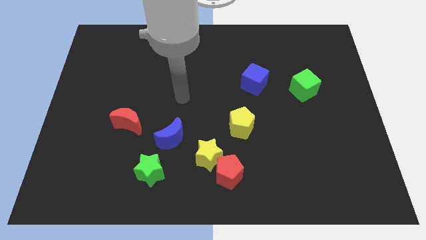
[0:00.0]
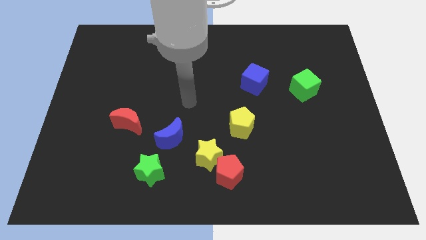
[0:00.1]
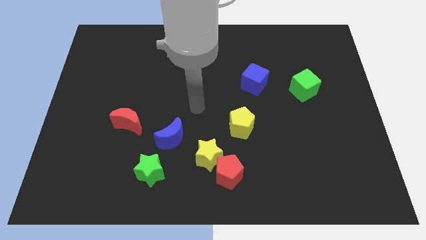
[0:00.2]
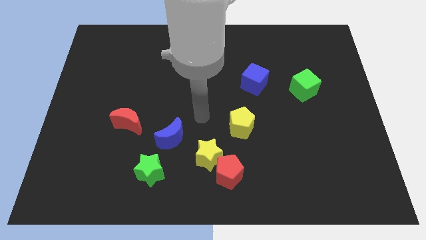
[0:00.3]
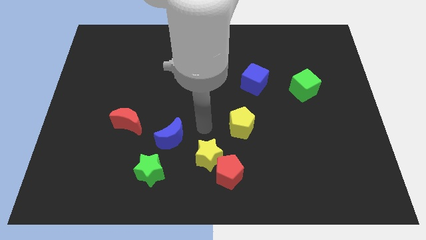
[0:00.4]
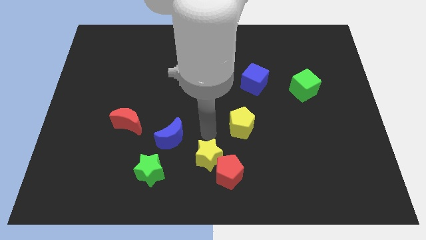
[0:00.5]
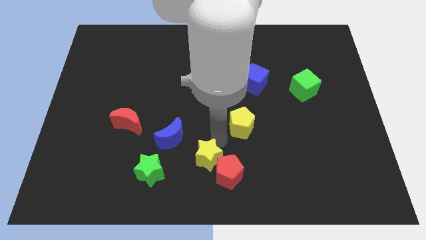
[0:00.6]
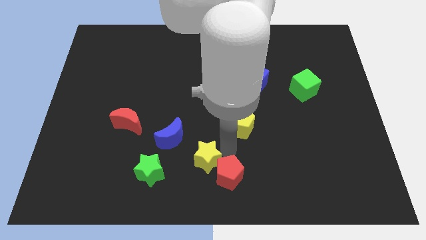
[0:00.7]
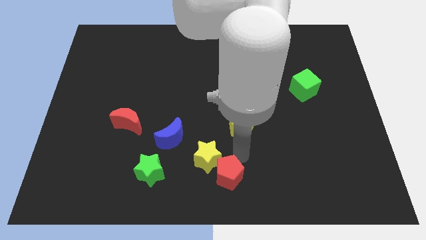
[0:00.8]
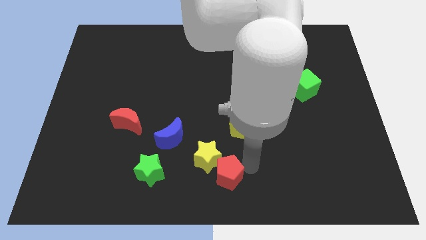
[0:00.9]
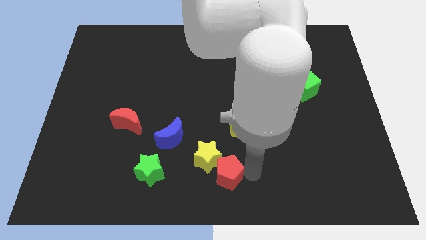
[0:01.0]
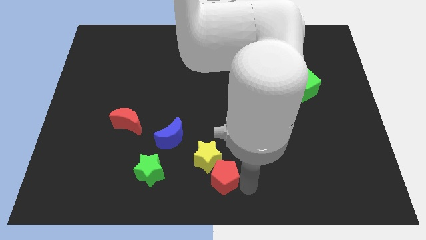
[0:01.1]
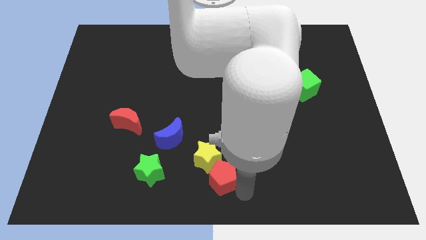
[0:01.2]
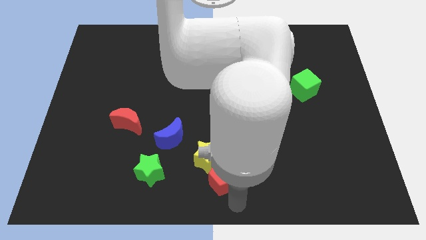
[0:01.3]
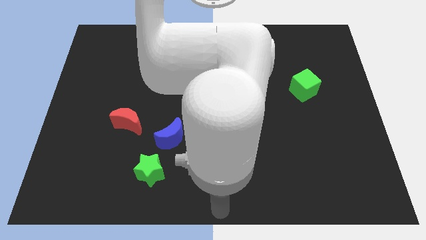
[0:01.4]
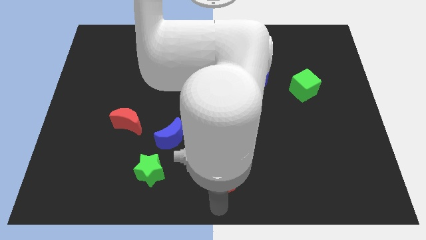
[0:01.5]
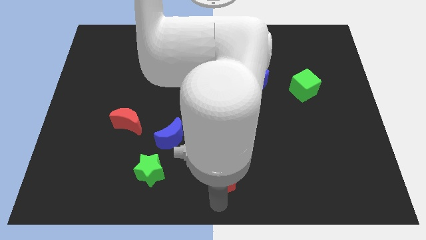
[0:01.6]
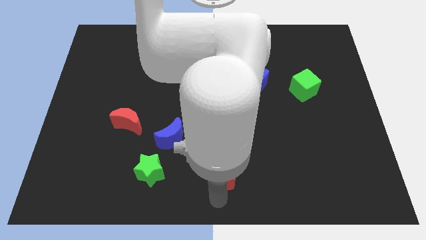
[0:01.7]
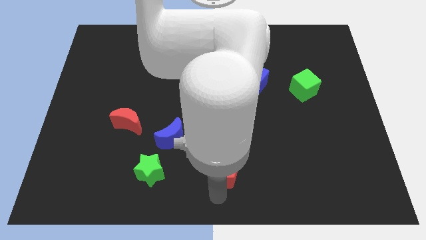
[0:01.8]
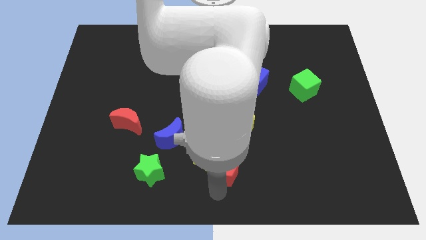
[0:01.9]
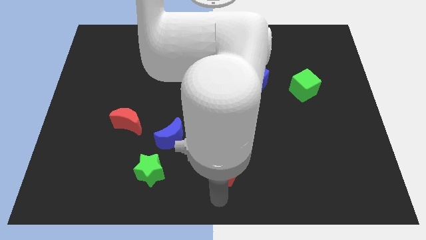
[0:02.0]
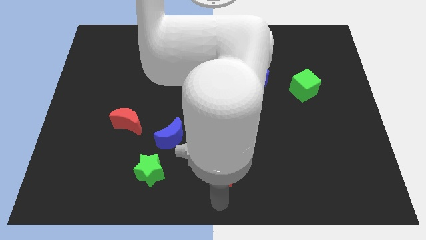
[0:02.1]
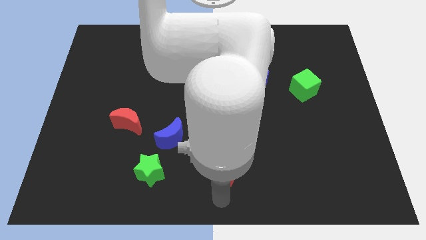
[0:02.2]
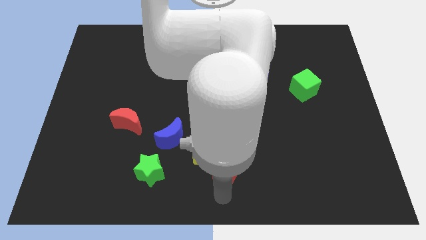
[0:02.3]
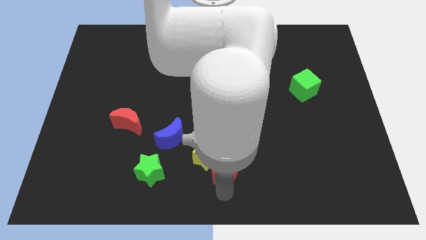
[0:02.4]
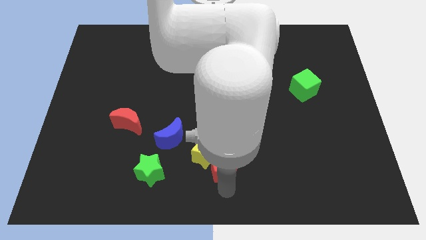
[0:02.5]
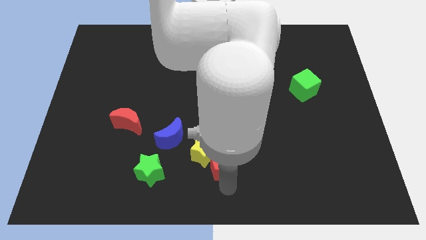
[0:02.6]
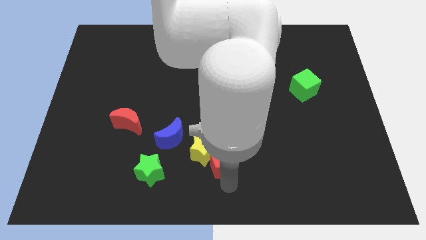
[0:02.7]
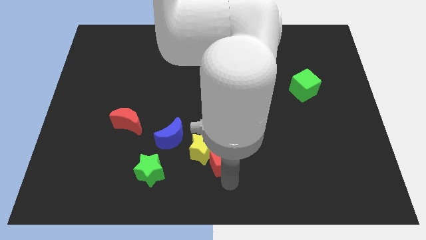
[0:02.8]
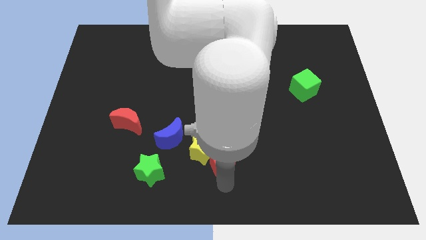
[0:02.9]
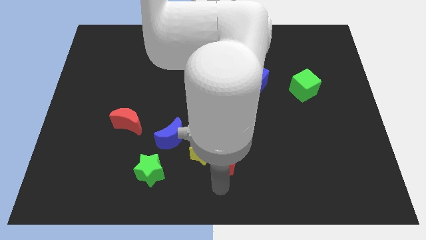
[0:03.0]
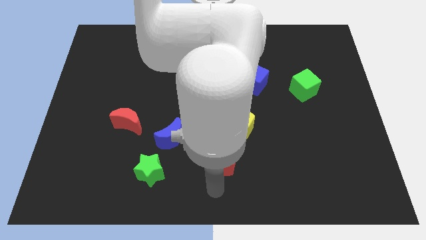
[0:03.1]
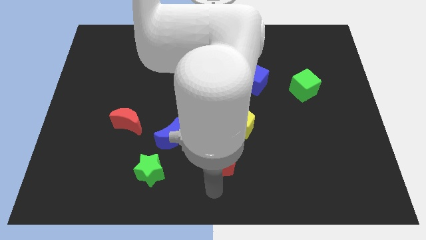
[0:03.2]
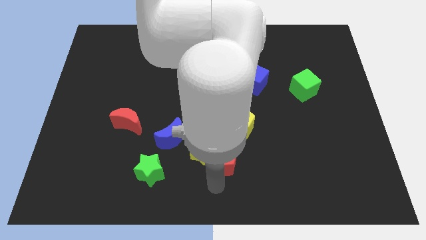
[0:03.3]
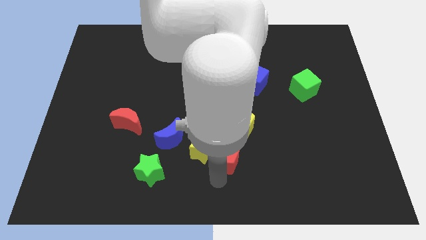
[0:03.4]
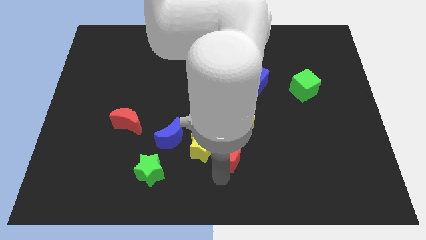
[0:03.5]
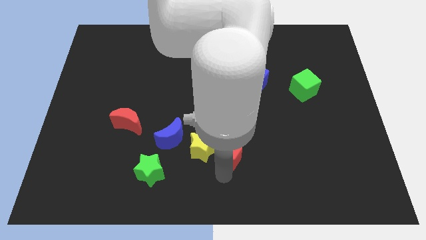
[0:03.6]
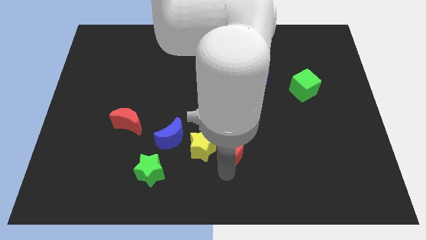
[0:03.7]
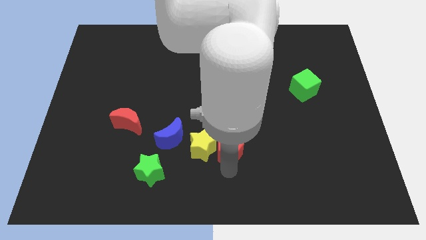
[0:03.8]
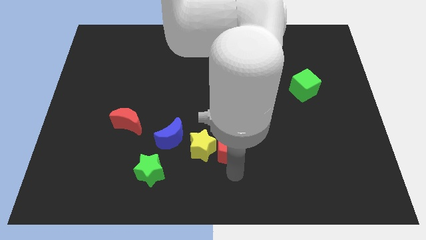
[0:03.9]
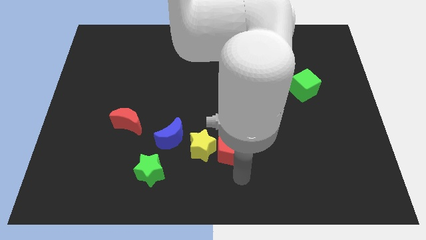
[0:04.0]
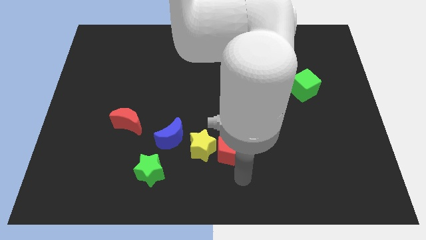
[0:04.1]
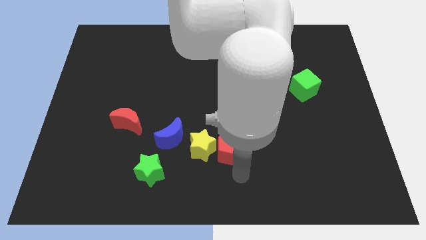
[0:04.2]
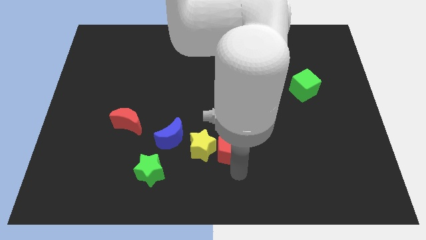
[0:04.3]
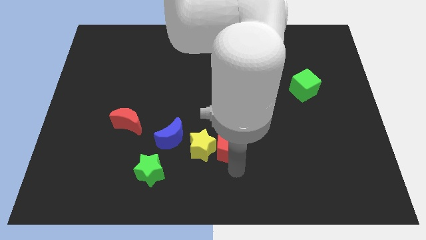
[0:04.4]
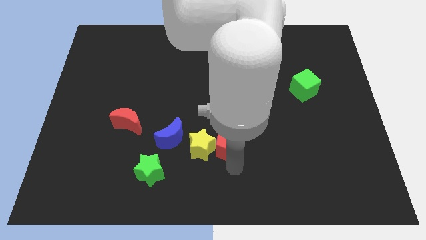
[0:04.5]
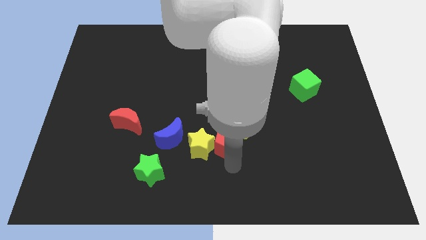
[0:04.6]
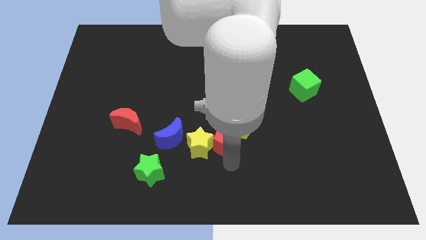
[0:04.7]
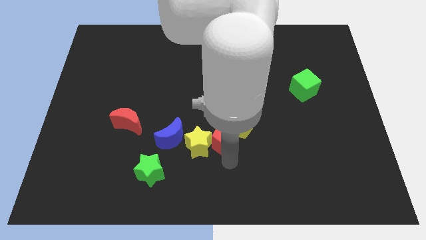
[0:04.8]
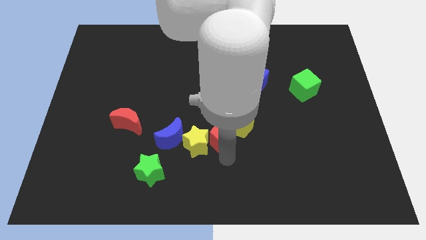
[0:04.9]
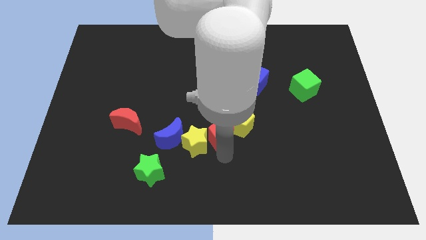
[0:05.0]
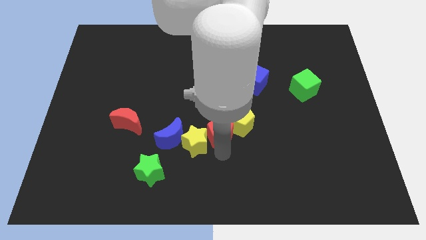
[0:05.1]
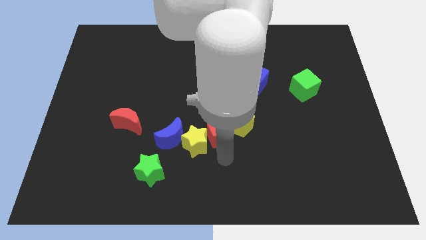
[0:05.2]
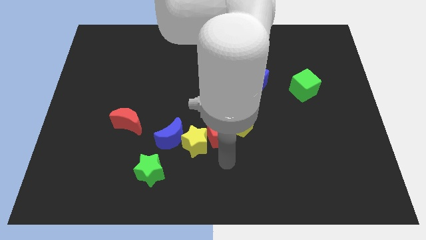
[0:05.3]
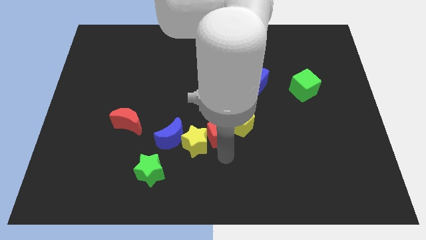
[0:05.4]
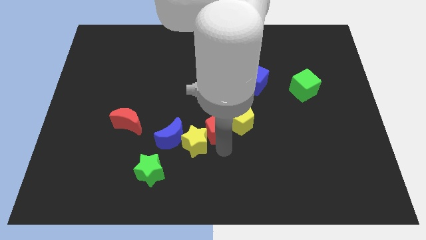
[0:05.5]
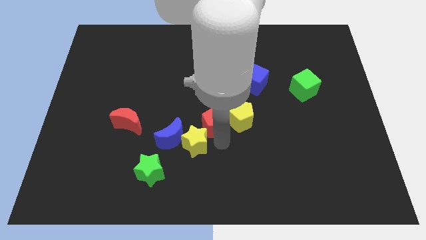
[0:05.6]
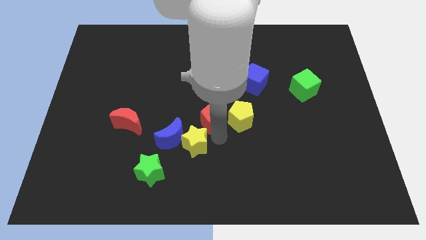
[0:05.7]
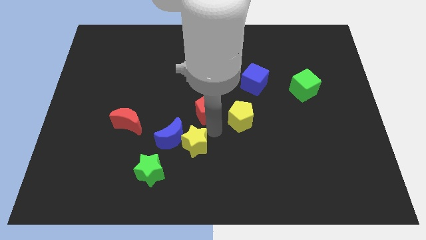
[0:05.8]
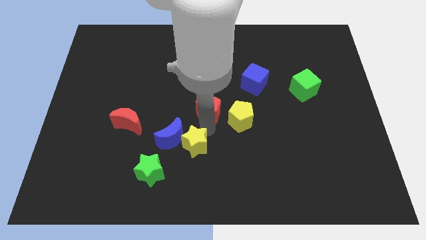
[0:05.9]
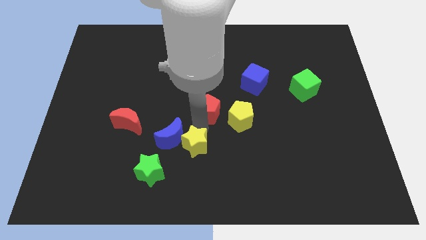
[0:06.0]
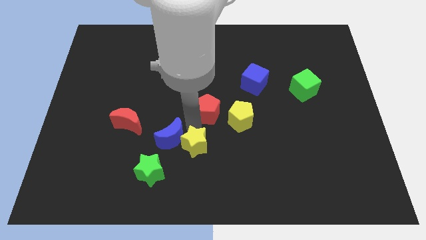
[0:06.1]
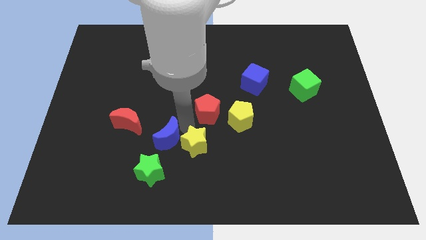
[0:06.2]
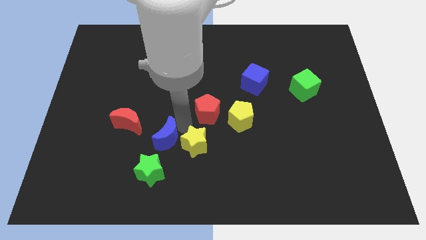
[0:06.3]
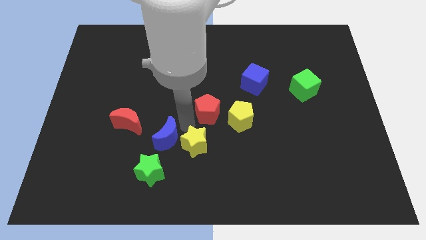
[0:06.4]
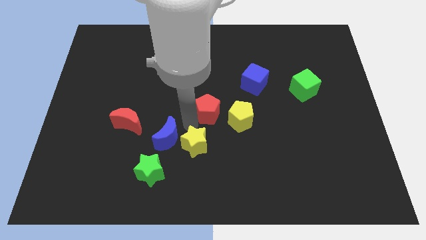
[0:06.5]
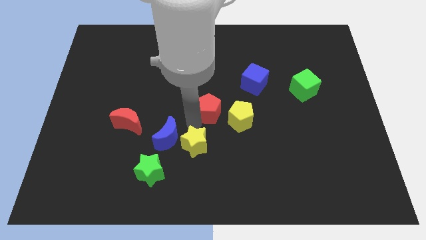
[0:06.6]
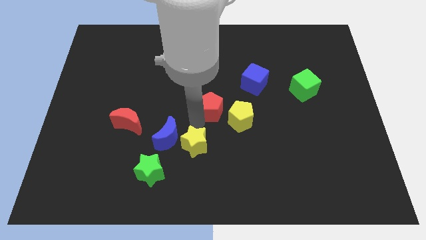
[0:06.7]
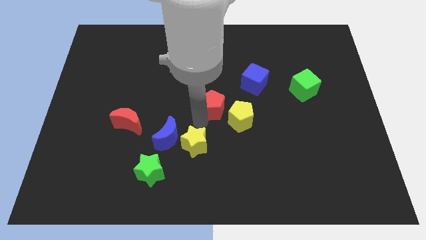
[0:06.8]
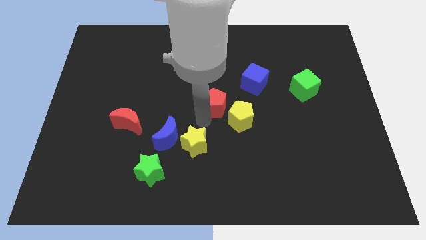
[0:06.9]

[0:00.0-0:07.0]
push the red pentagon diagonally down and to the left of the blue cube
